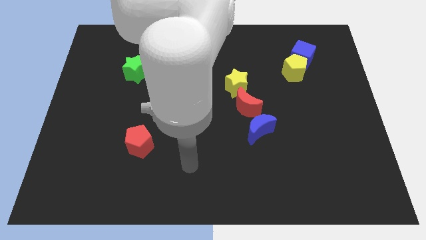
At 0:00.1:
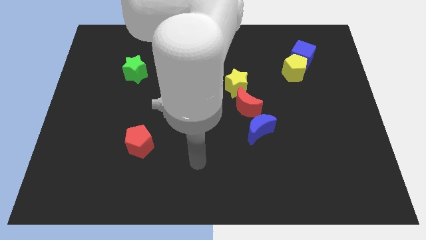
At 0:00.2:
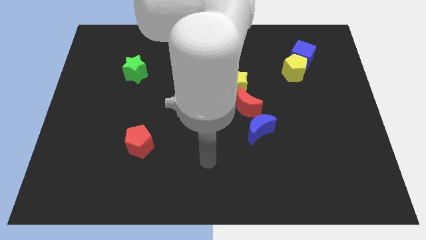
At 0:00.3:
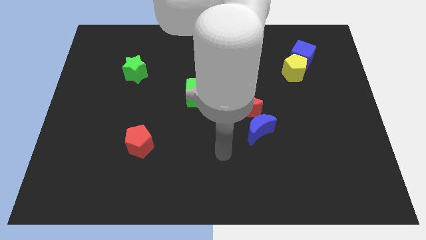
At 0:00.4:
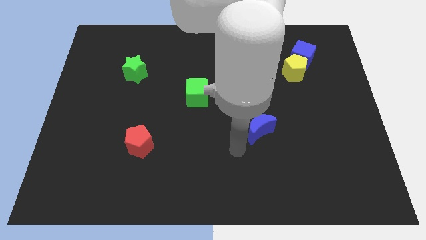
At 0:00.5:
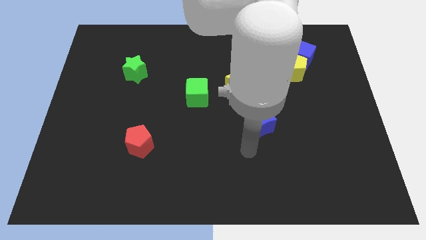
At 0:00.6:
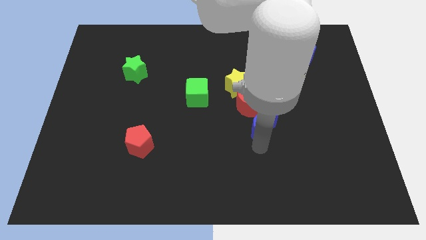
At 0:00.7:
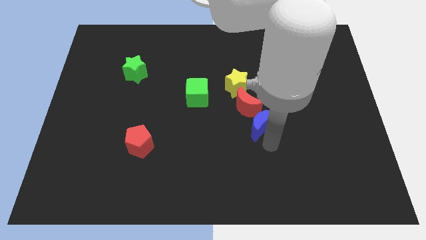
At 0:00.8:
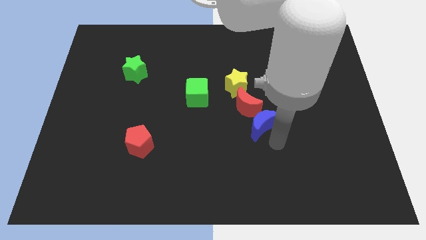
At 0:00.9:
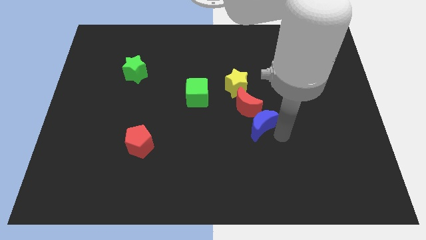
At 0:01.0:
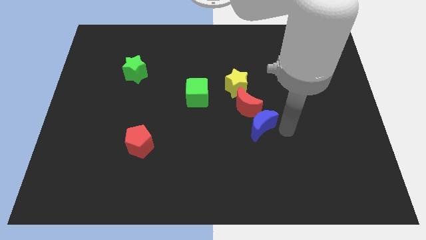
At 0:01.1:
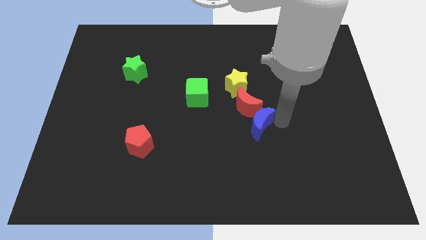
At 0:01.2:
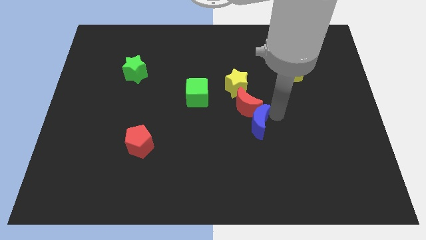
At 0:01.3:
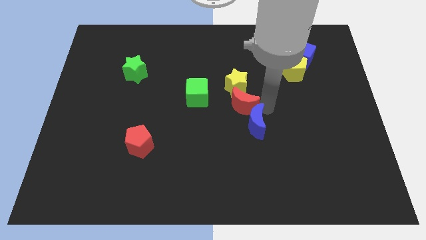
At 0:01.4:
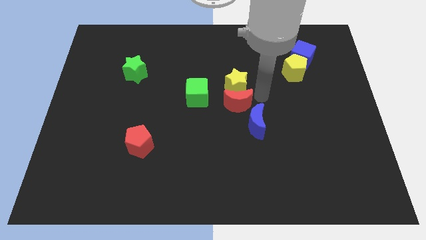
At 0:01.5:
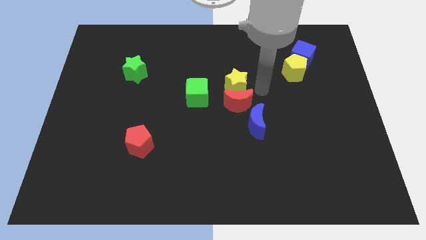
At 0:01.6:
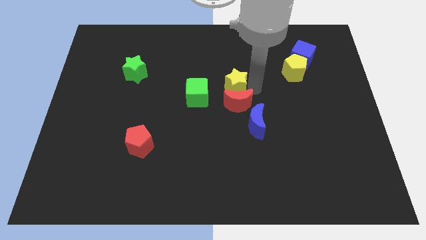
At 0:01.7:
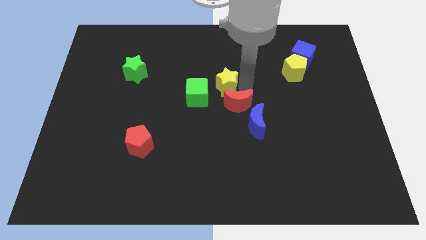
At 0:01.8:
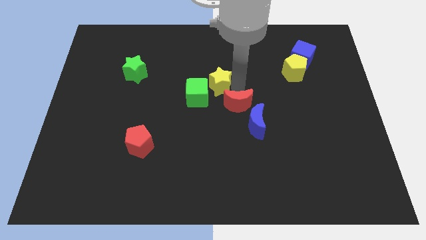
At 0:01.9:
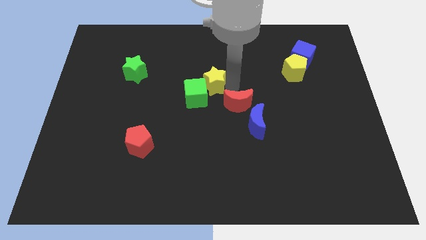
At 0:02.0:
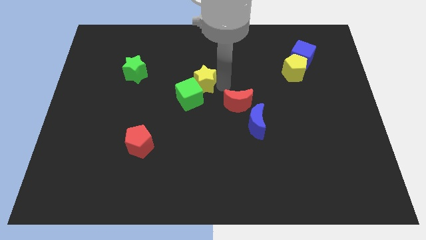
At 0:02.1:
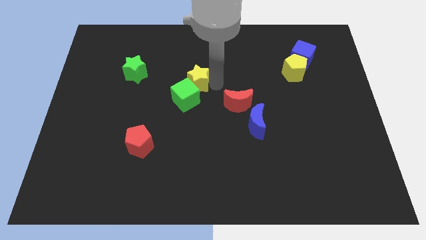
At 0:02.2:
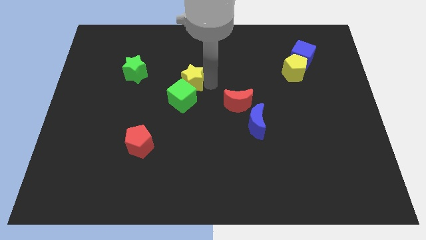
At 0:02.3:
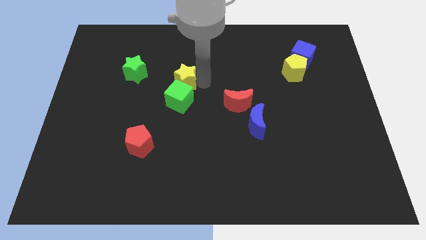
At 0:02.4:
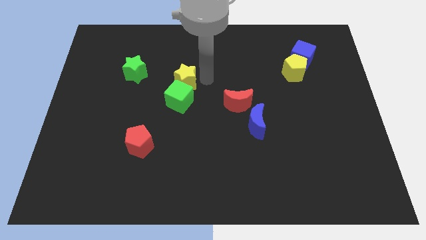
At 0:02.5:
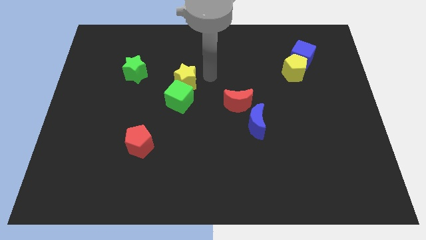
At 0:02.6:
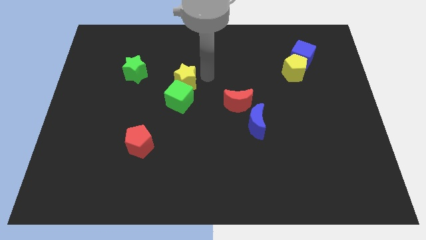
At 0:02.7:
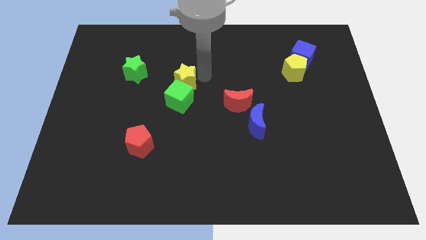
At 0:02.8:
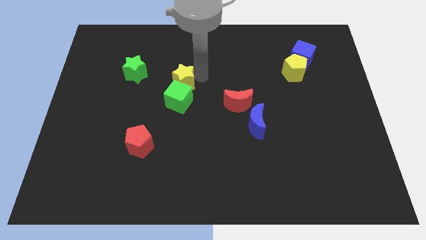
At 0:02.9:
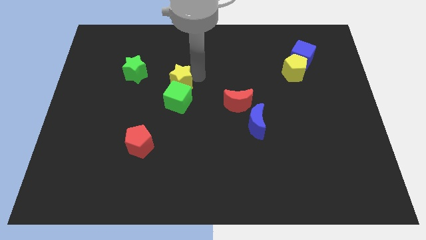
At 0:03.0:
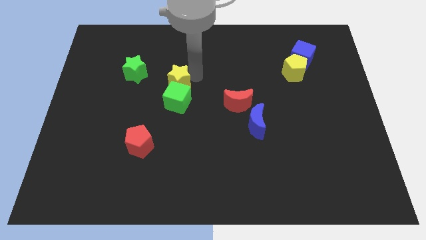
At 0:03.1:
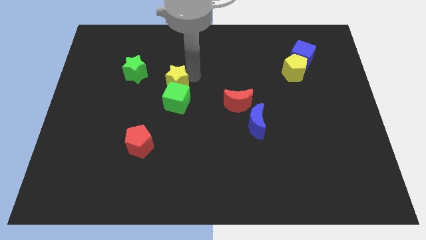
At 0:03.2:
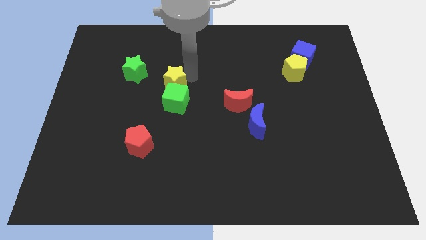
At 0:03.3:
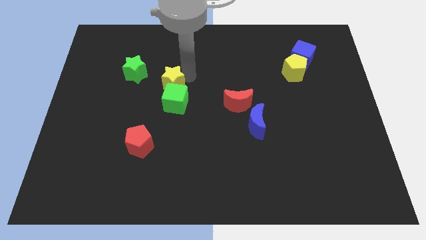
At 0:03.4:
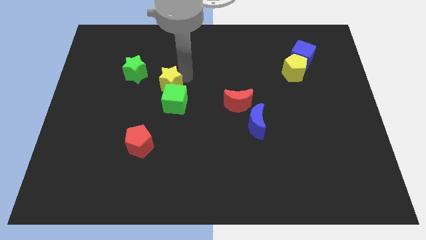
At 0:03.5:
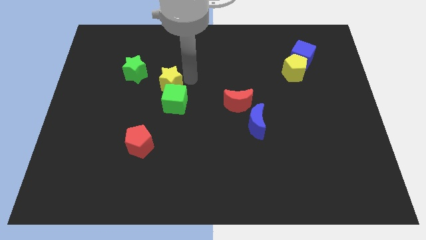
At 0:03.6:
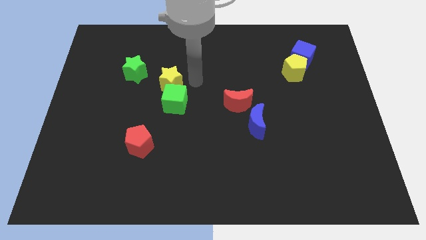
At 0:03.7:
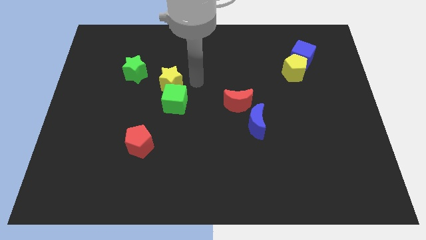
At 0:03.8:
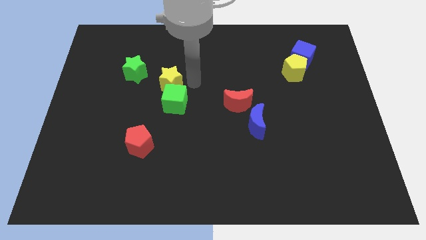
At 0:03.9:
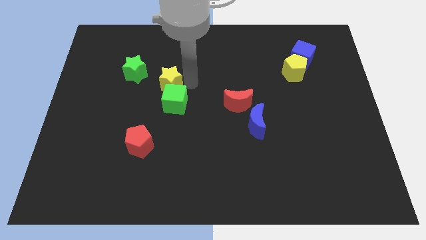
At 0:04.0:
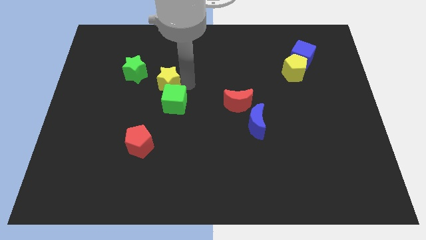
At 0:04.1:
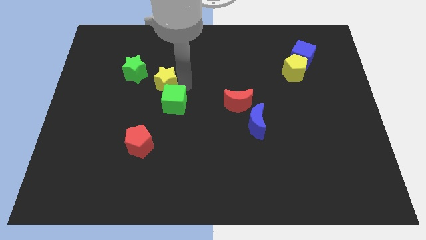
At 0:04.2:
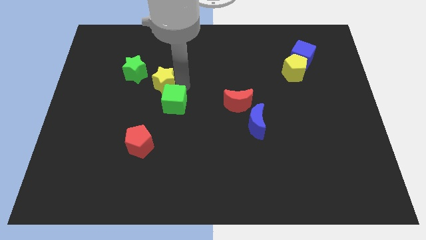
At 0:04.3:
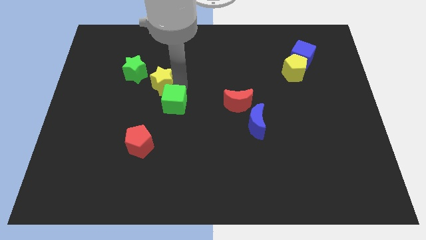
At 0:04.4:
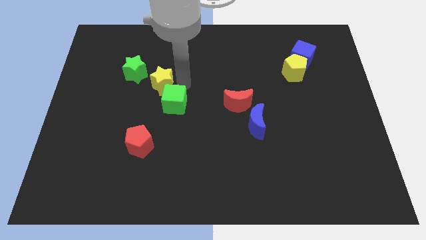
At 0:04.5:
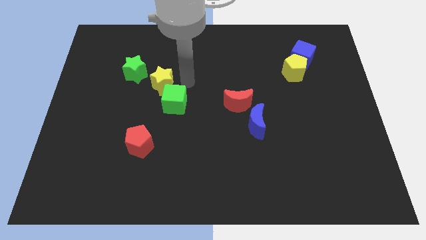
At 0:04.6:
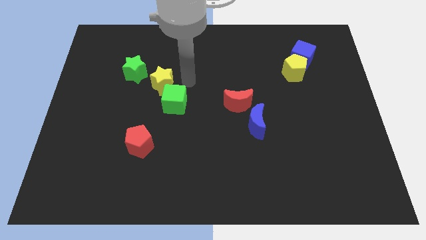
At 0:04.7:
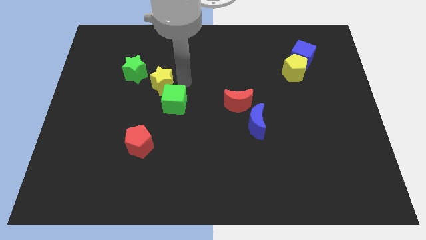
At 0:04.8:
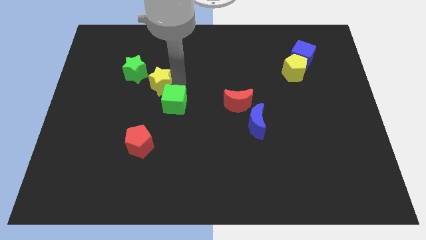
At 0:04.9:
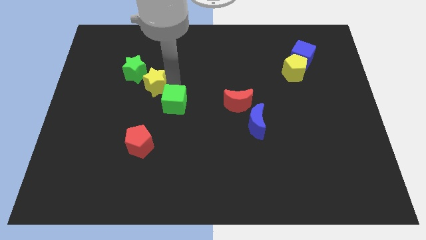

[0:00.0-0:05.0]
slide the yellow star to the left

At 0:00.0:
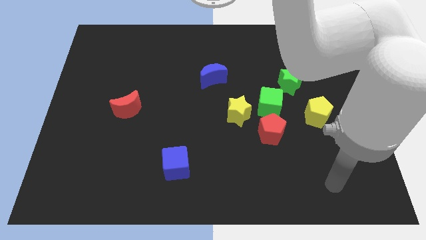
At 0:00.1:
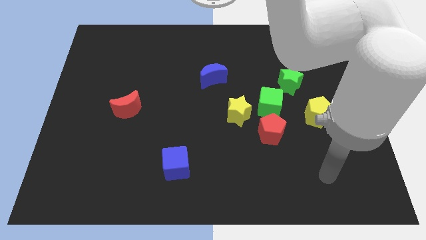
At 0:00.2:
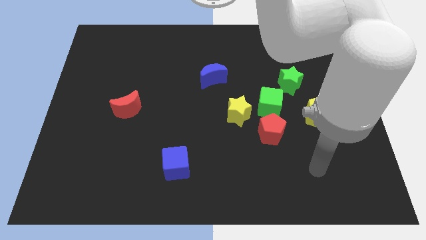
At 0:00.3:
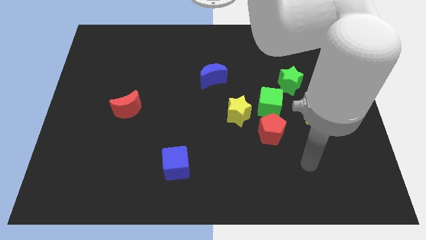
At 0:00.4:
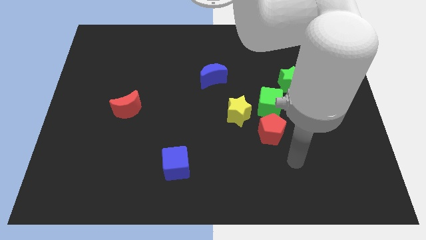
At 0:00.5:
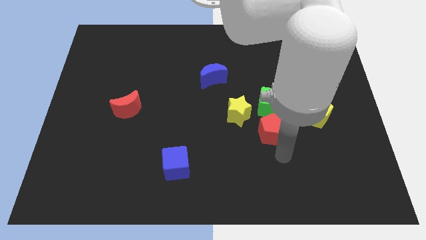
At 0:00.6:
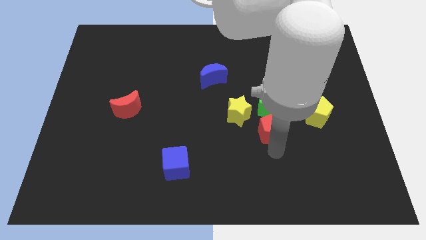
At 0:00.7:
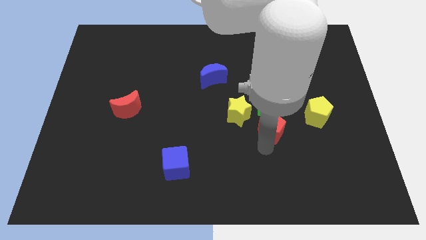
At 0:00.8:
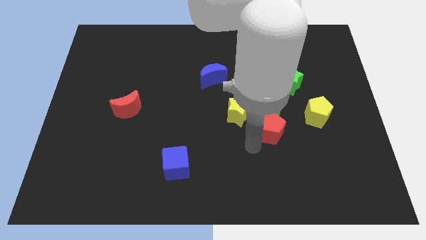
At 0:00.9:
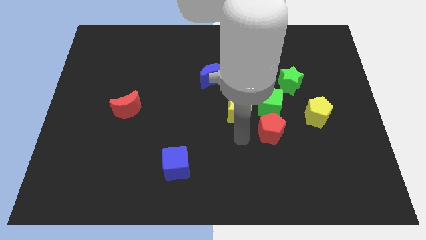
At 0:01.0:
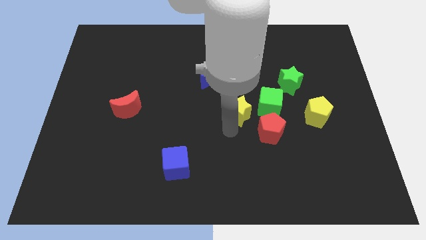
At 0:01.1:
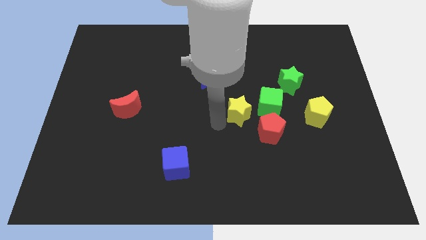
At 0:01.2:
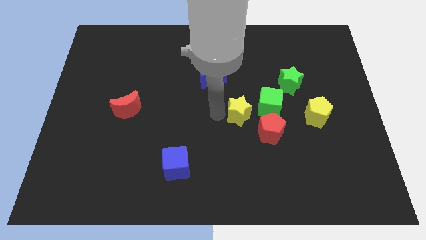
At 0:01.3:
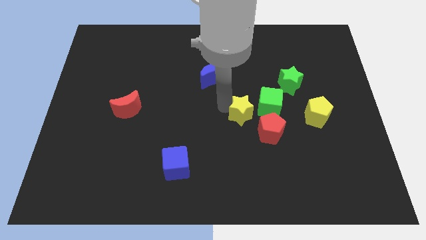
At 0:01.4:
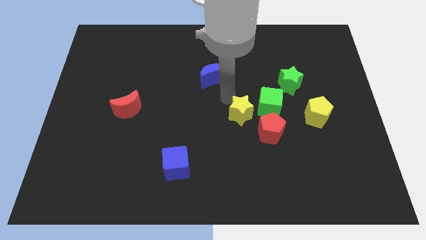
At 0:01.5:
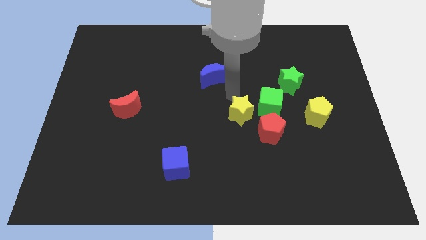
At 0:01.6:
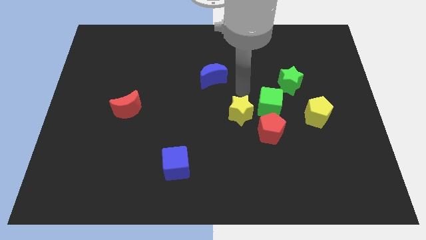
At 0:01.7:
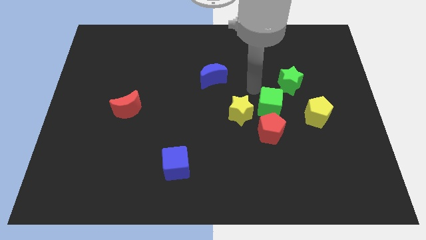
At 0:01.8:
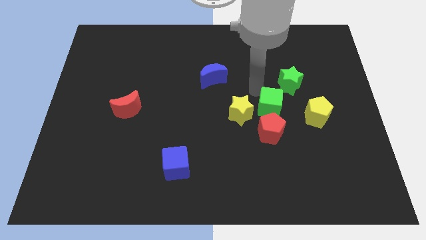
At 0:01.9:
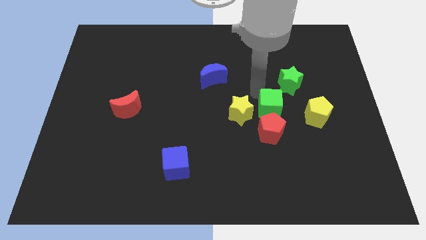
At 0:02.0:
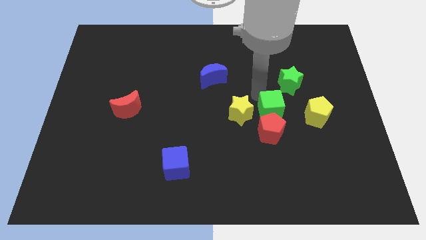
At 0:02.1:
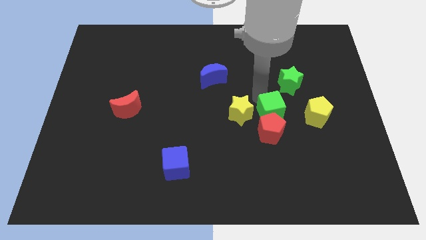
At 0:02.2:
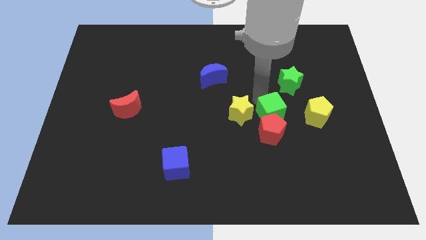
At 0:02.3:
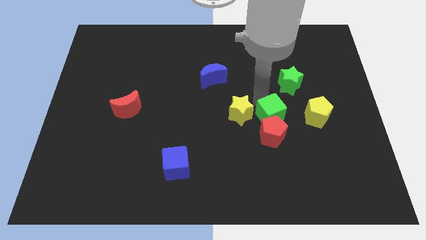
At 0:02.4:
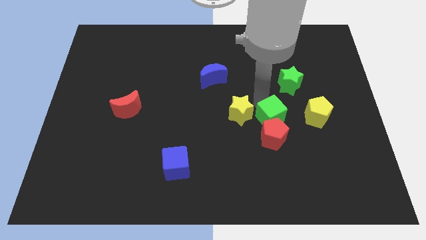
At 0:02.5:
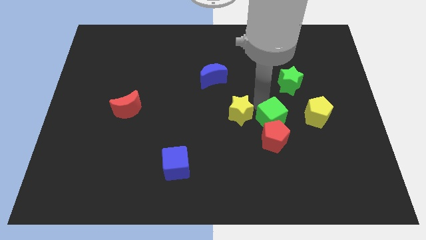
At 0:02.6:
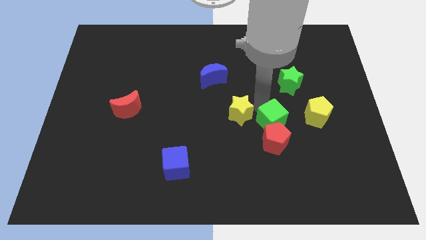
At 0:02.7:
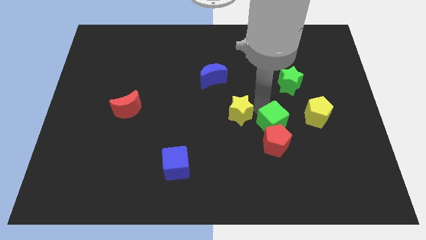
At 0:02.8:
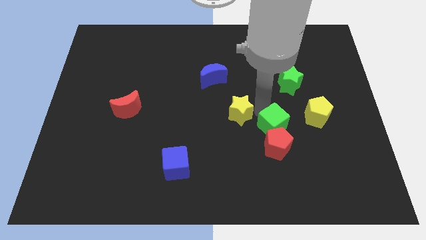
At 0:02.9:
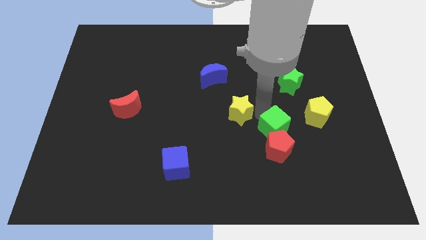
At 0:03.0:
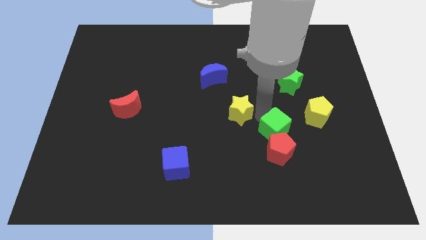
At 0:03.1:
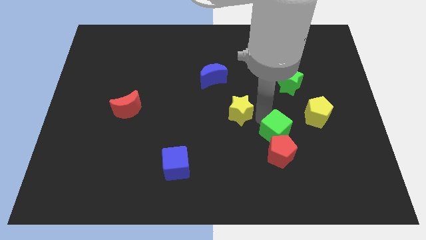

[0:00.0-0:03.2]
slide the green cube somewhat down
